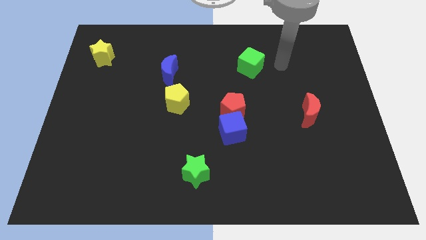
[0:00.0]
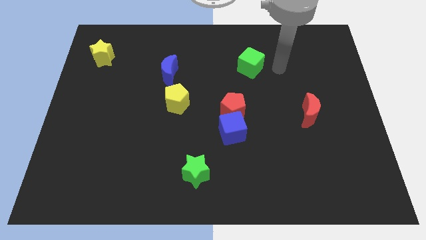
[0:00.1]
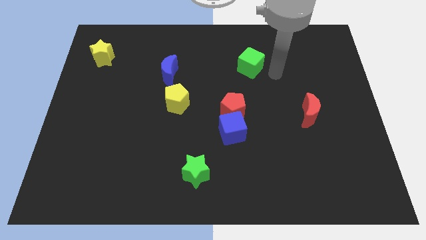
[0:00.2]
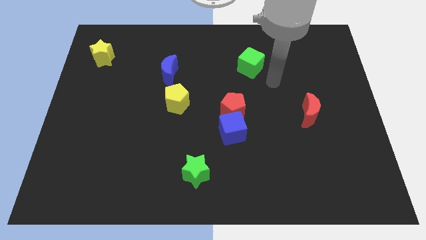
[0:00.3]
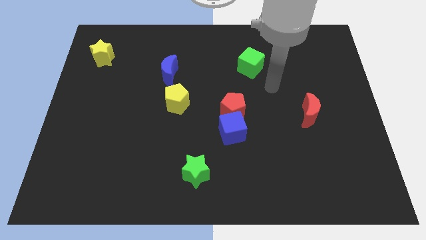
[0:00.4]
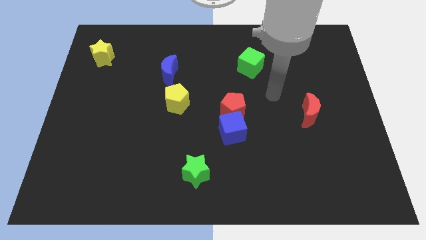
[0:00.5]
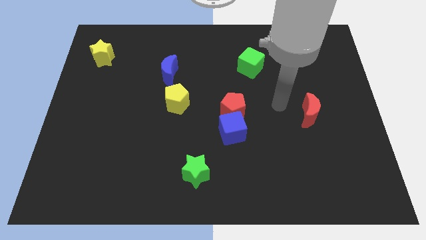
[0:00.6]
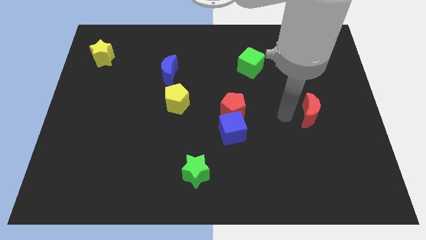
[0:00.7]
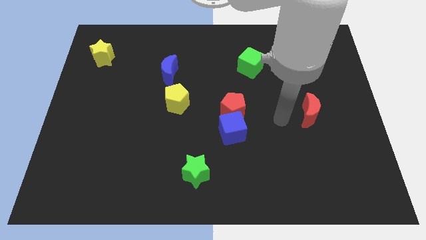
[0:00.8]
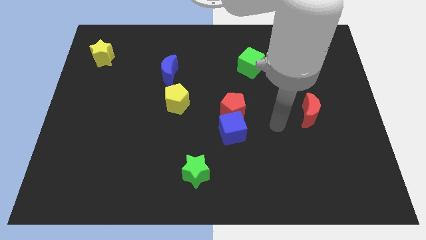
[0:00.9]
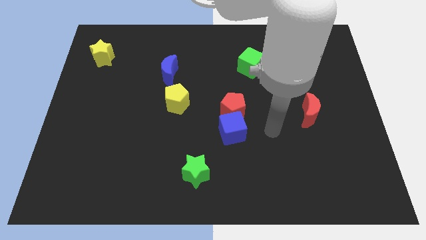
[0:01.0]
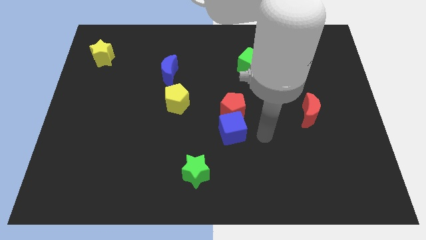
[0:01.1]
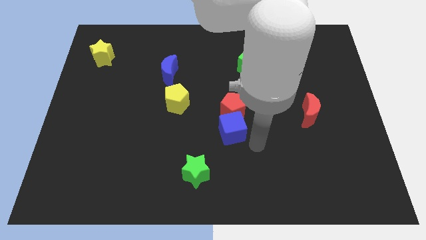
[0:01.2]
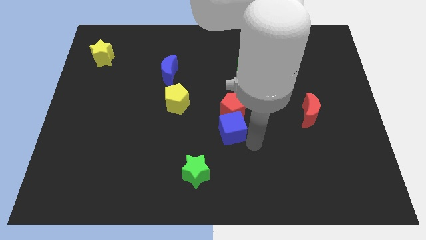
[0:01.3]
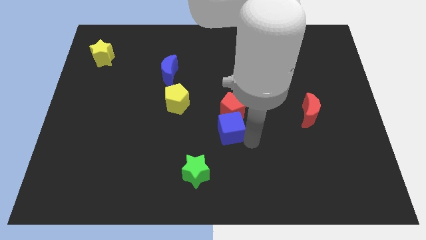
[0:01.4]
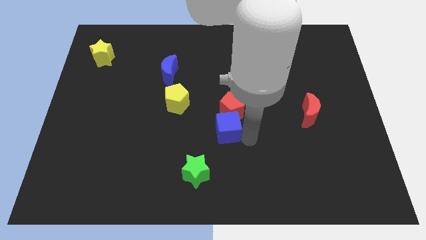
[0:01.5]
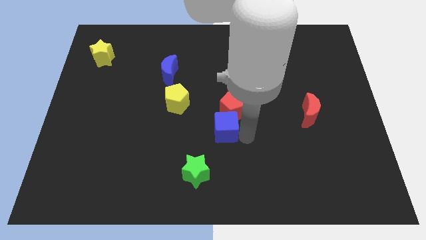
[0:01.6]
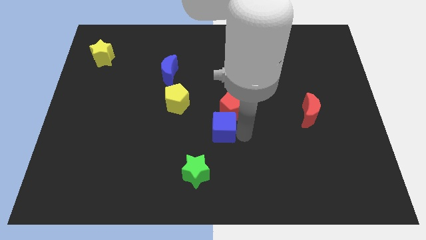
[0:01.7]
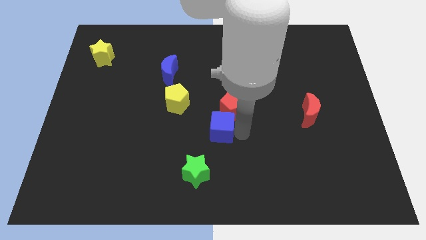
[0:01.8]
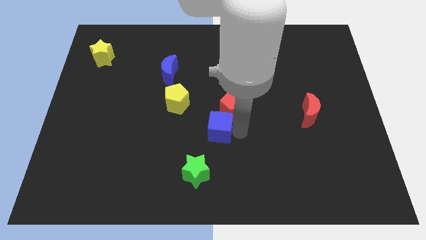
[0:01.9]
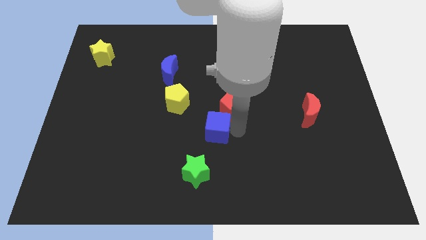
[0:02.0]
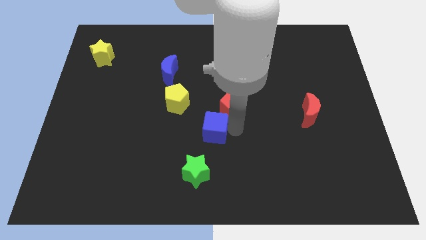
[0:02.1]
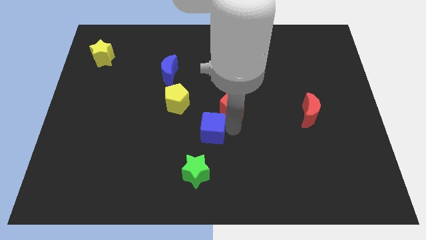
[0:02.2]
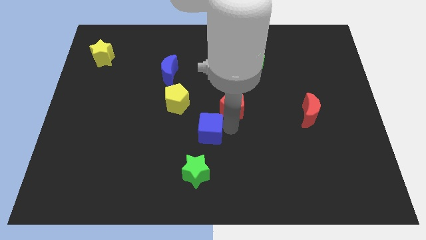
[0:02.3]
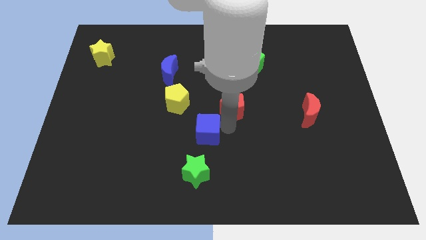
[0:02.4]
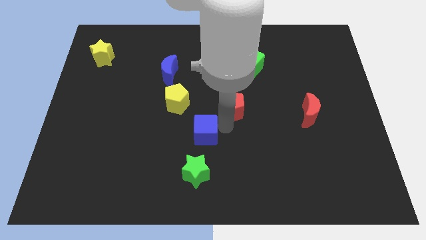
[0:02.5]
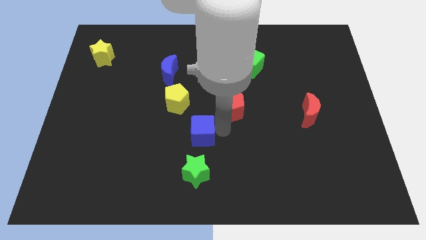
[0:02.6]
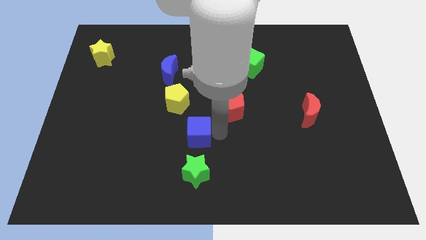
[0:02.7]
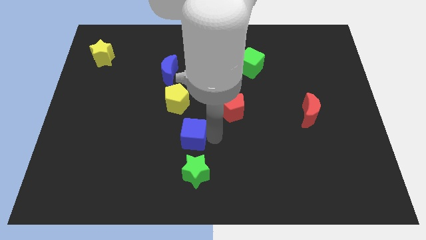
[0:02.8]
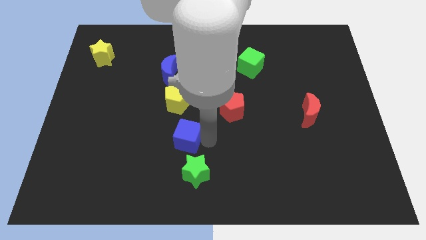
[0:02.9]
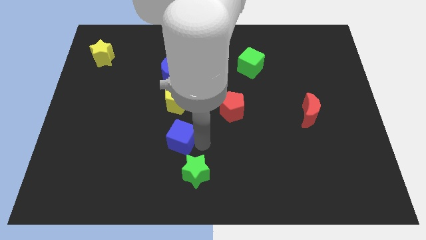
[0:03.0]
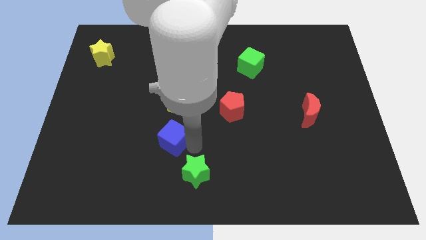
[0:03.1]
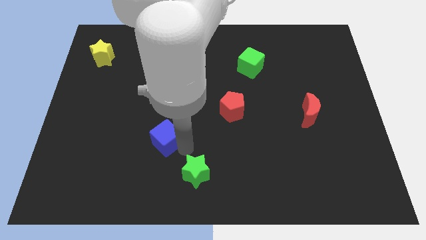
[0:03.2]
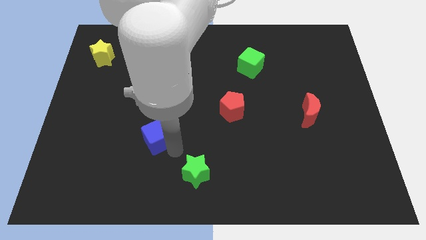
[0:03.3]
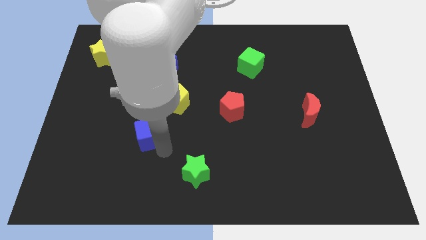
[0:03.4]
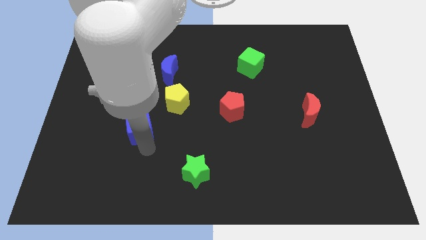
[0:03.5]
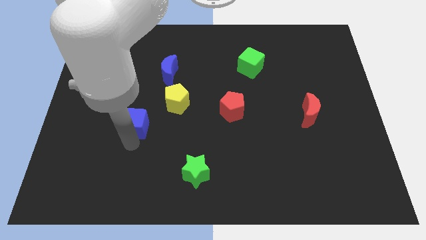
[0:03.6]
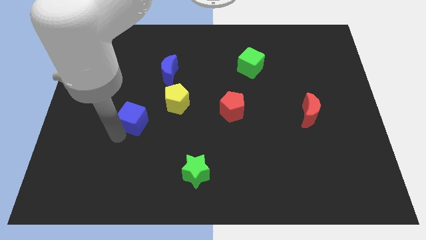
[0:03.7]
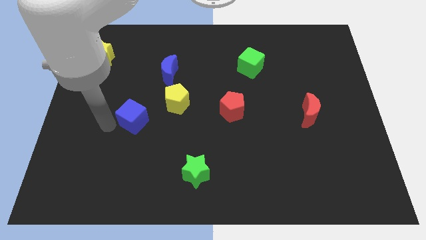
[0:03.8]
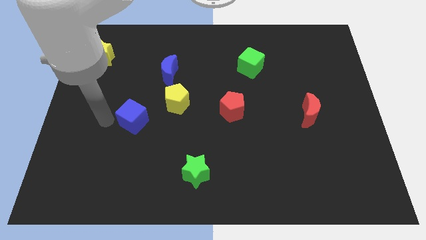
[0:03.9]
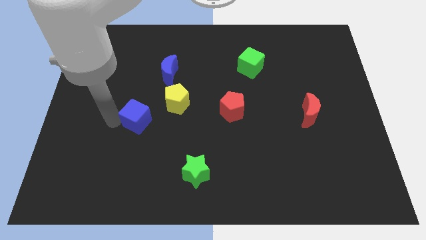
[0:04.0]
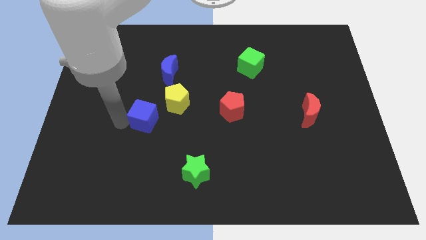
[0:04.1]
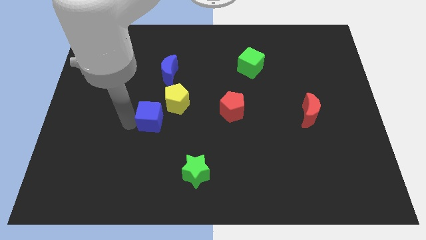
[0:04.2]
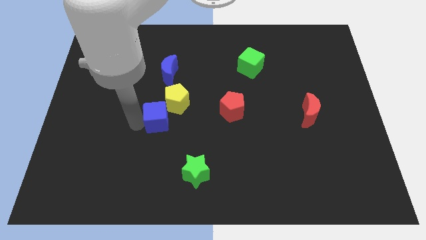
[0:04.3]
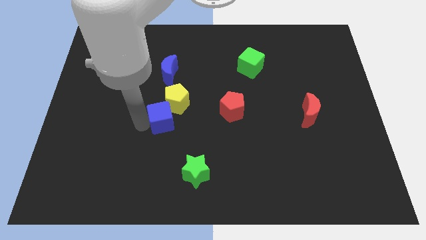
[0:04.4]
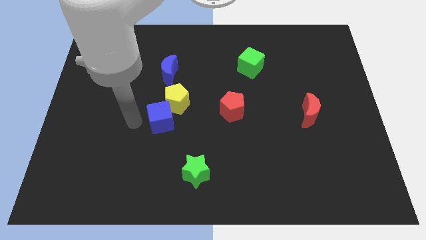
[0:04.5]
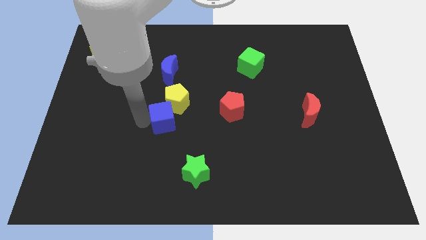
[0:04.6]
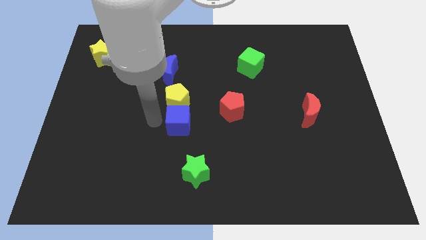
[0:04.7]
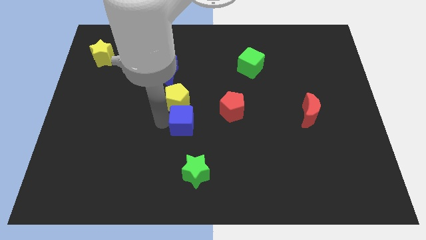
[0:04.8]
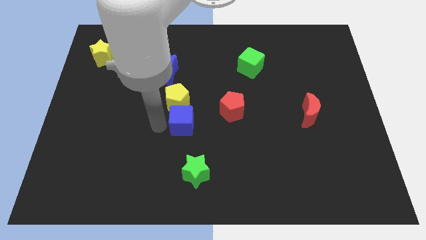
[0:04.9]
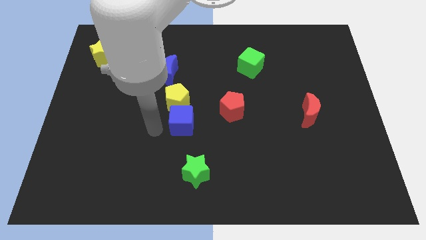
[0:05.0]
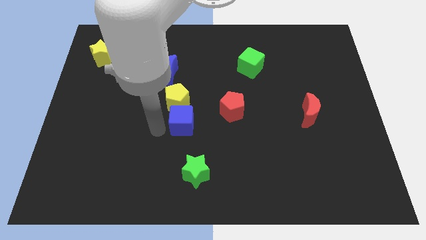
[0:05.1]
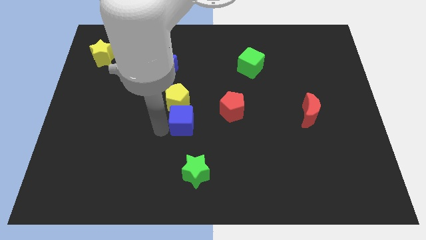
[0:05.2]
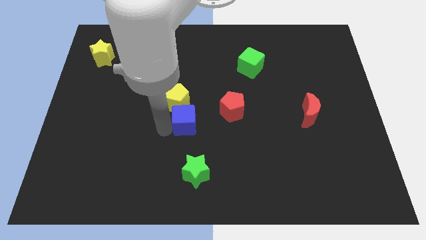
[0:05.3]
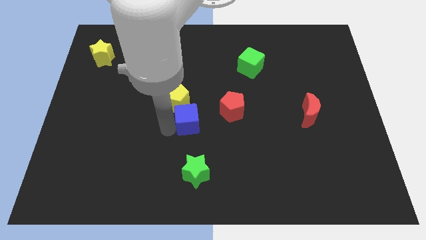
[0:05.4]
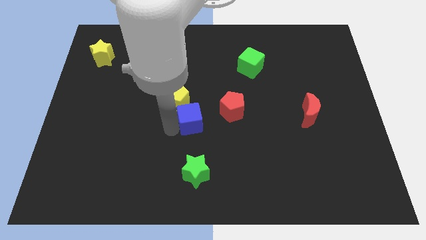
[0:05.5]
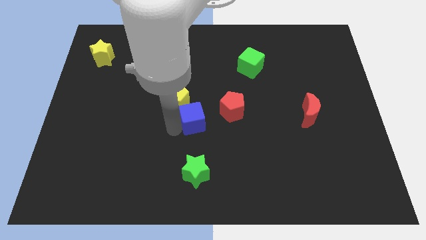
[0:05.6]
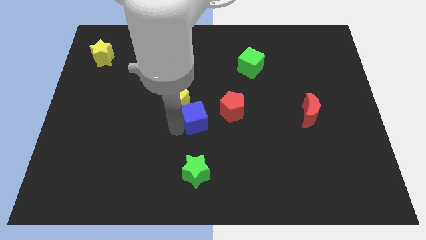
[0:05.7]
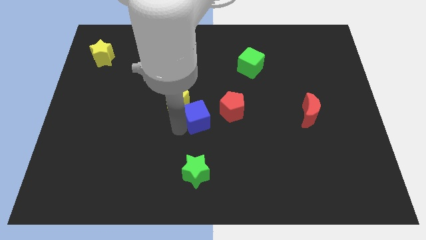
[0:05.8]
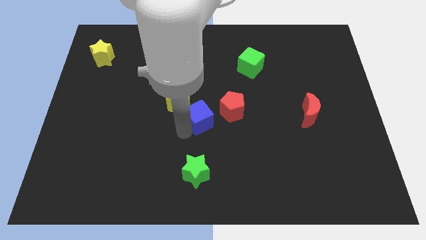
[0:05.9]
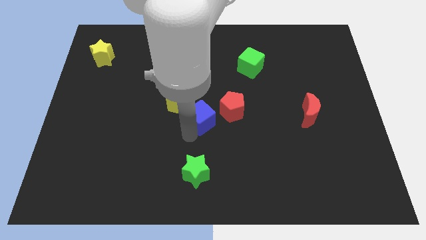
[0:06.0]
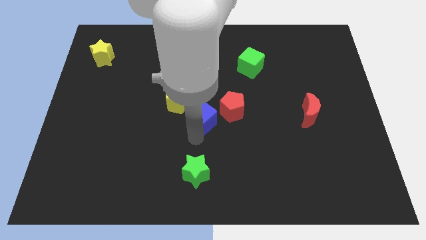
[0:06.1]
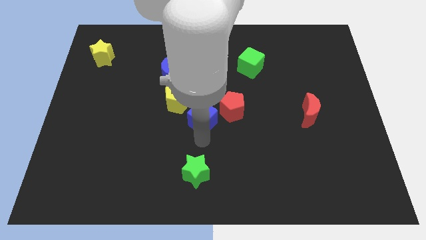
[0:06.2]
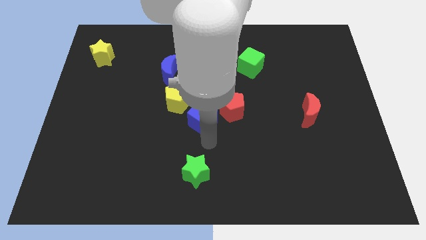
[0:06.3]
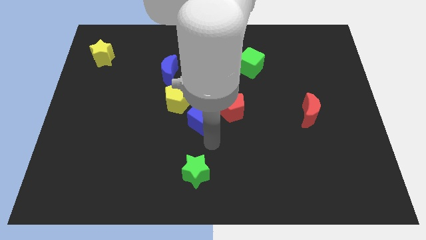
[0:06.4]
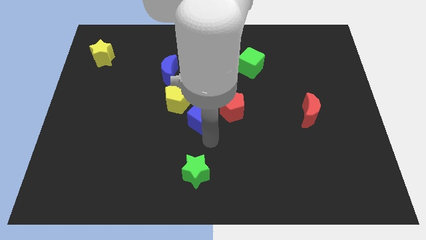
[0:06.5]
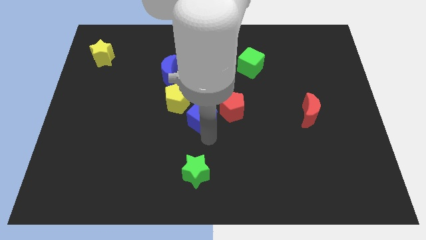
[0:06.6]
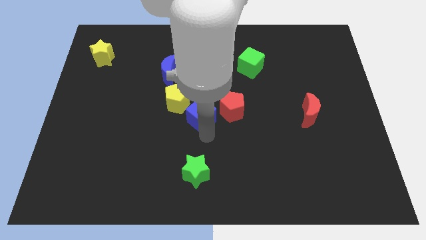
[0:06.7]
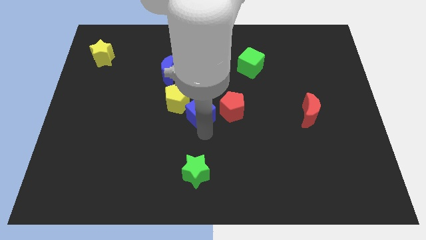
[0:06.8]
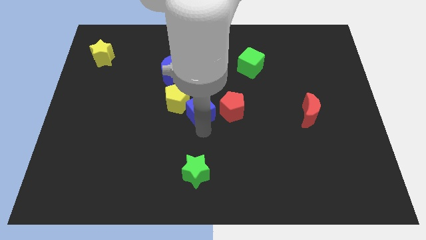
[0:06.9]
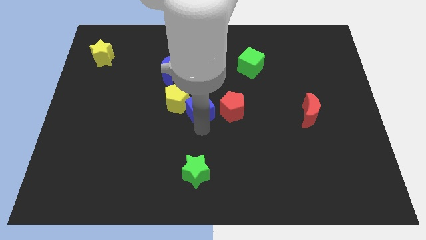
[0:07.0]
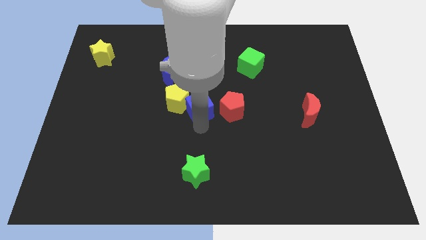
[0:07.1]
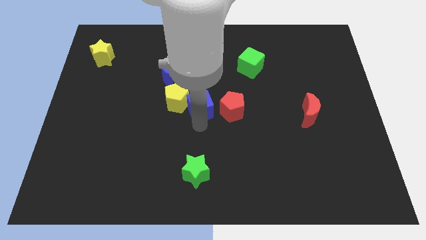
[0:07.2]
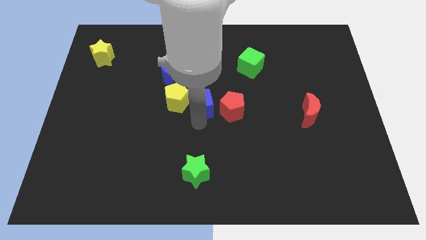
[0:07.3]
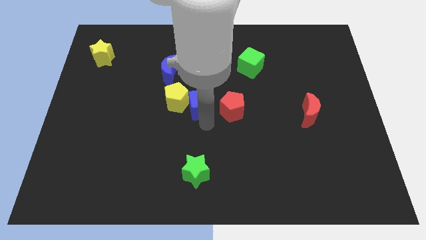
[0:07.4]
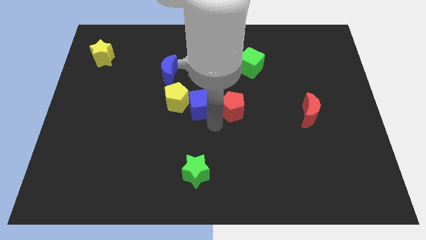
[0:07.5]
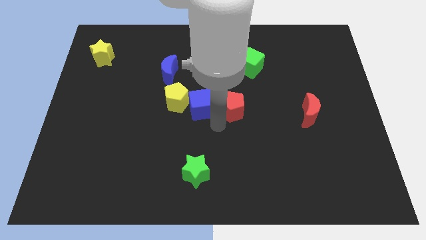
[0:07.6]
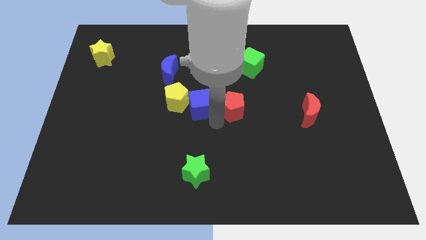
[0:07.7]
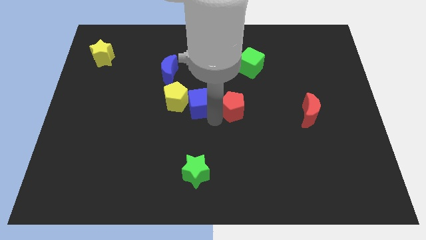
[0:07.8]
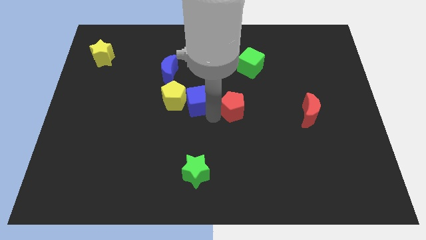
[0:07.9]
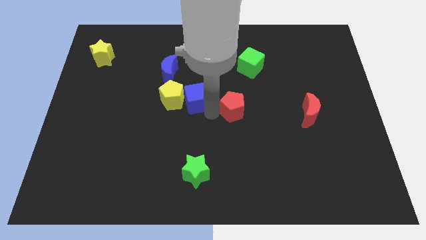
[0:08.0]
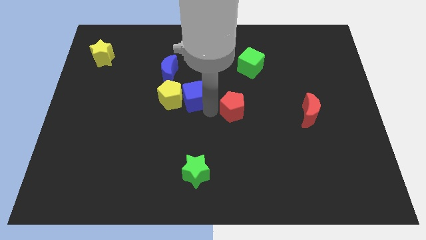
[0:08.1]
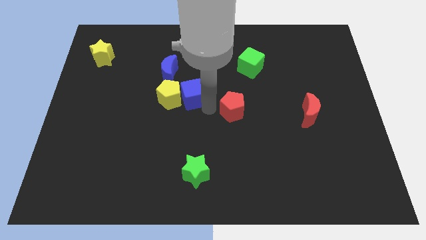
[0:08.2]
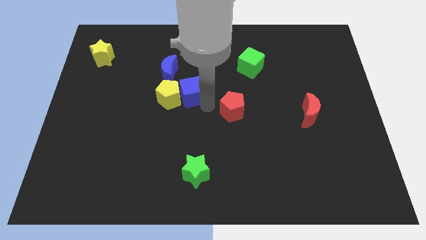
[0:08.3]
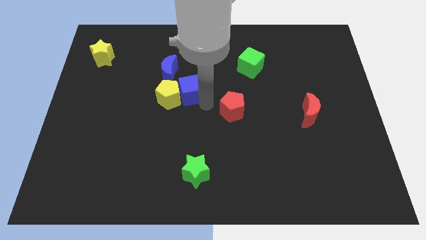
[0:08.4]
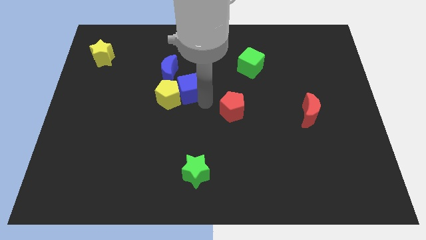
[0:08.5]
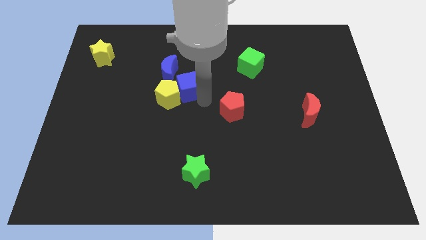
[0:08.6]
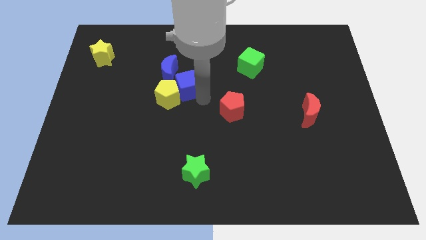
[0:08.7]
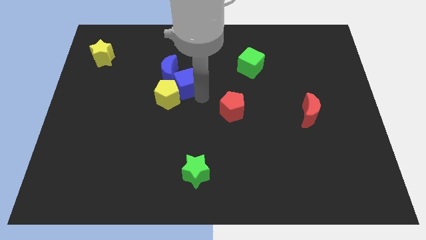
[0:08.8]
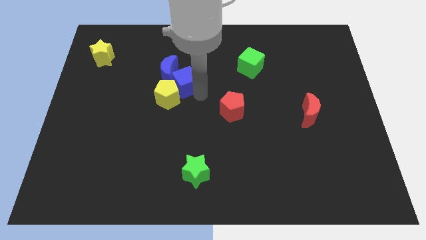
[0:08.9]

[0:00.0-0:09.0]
slide the blue cube close to the blue moon
